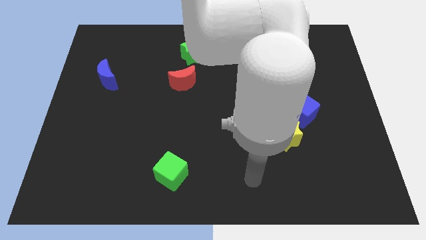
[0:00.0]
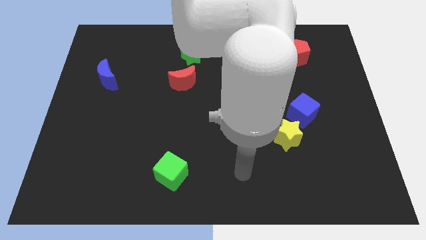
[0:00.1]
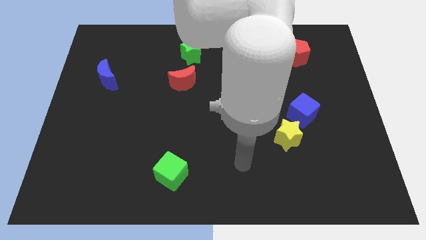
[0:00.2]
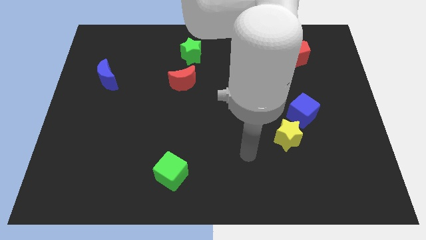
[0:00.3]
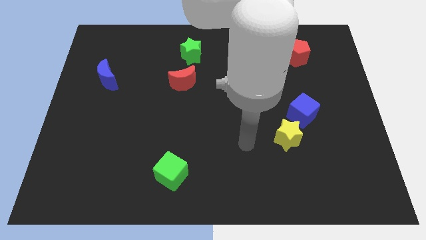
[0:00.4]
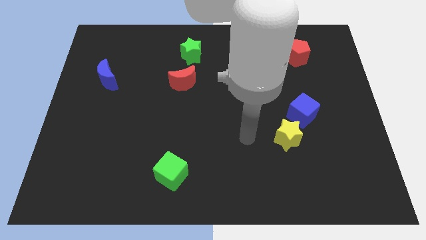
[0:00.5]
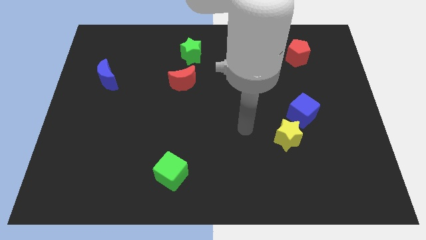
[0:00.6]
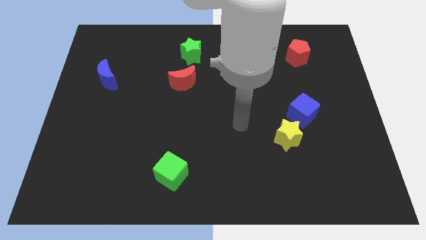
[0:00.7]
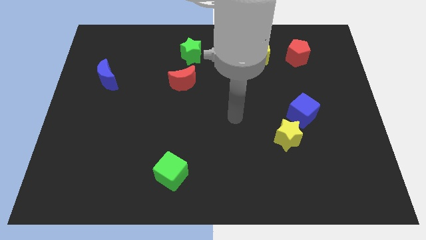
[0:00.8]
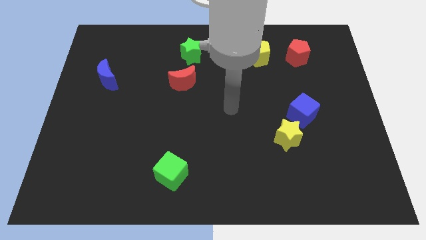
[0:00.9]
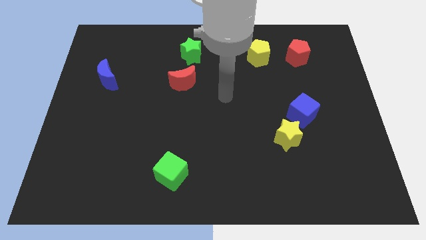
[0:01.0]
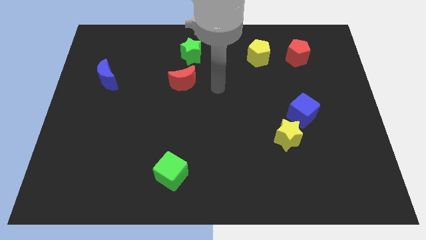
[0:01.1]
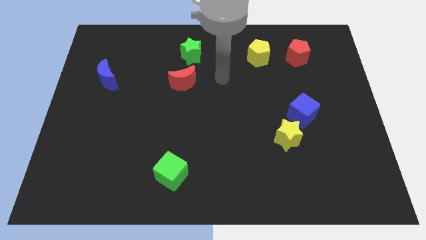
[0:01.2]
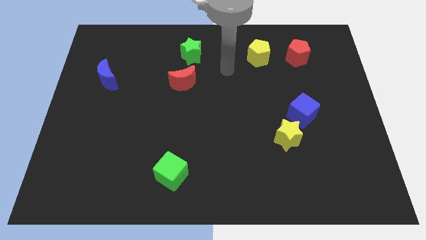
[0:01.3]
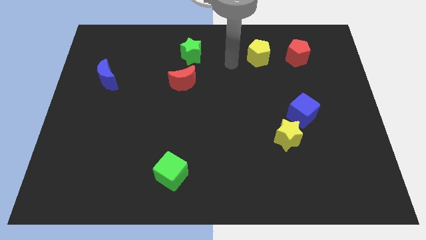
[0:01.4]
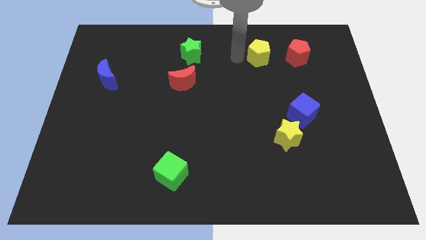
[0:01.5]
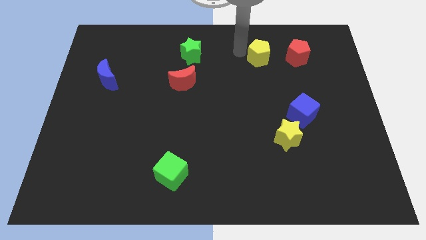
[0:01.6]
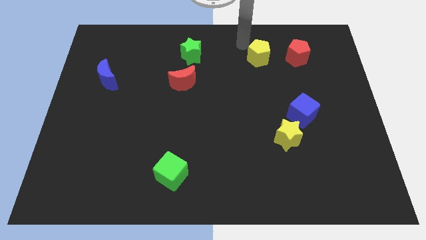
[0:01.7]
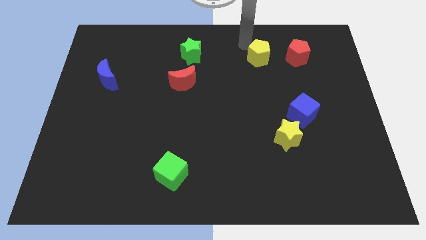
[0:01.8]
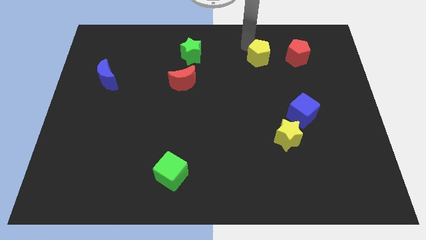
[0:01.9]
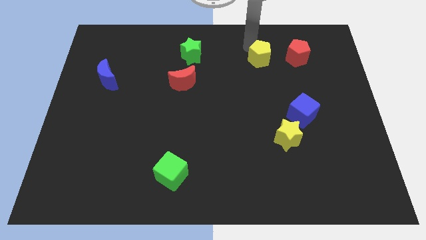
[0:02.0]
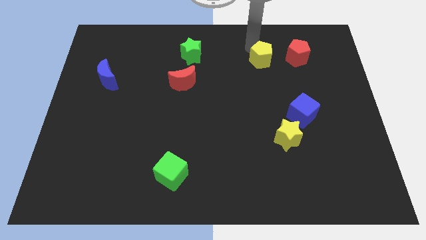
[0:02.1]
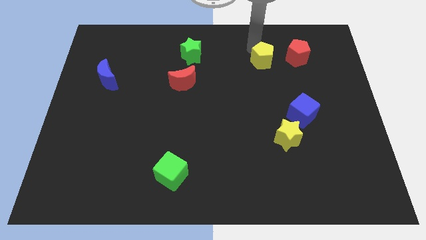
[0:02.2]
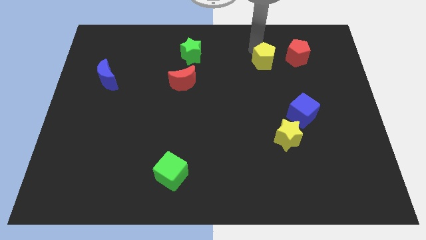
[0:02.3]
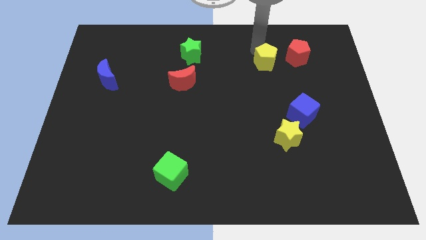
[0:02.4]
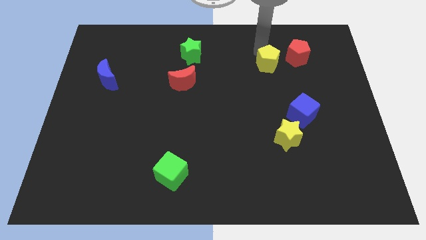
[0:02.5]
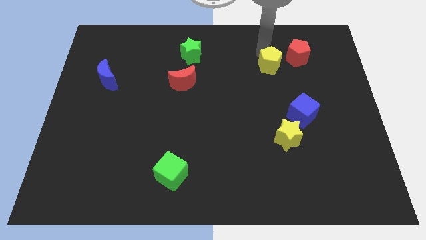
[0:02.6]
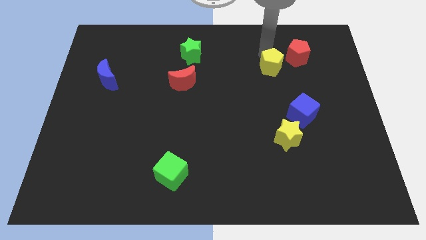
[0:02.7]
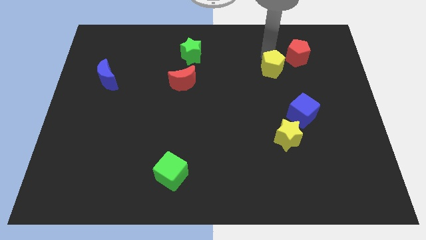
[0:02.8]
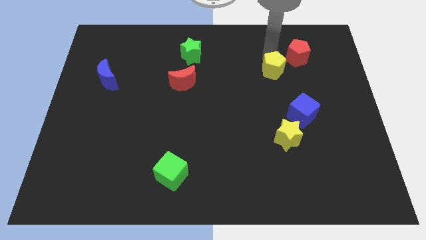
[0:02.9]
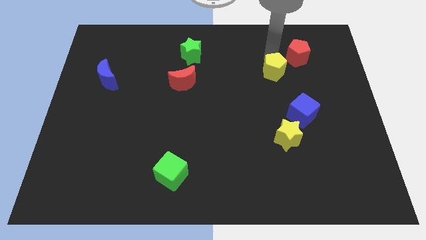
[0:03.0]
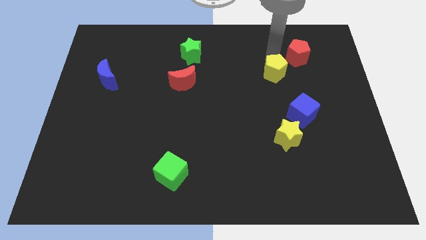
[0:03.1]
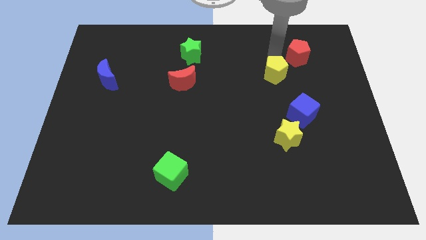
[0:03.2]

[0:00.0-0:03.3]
move the yellow pentagon slightly down and to the right

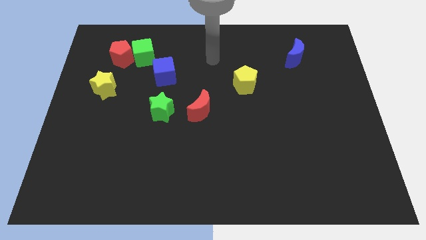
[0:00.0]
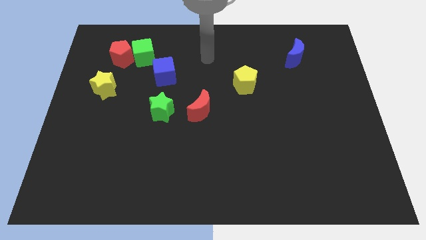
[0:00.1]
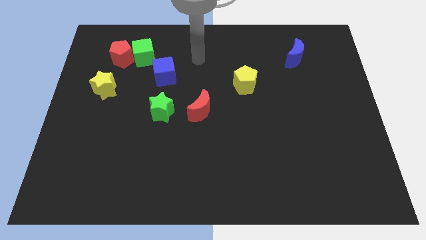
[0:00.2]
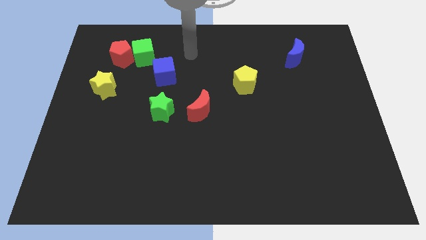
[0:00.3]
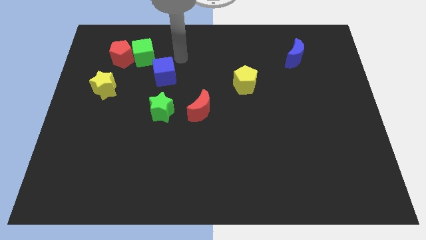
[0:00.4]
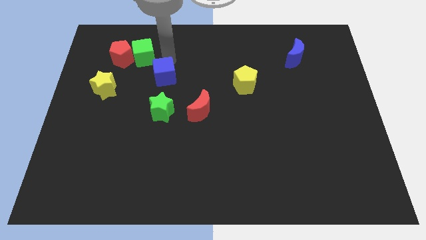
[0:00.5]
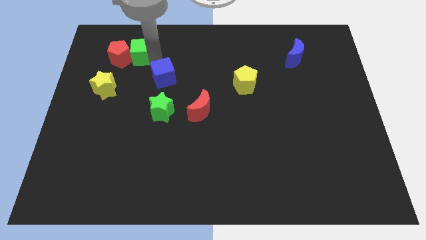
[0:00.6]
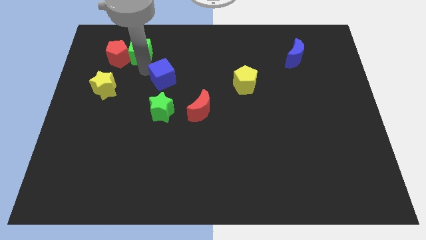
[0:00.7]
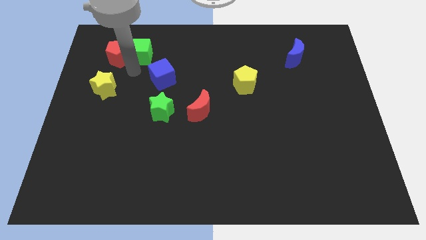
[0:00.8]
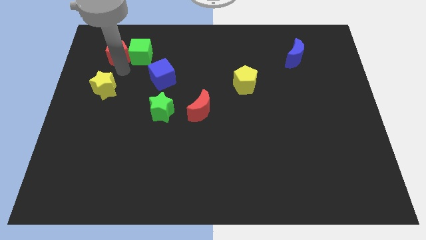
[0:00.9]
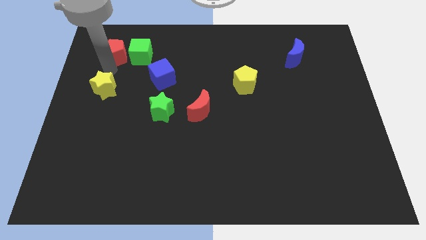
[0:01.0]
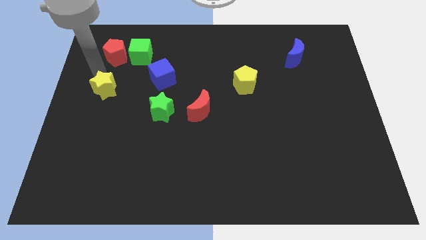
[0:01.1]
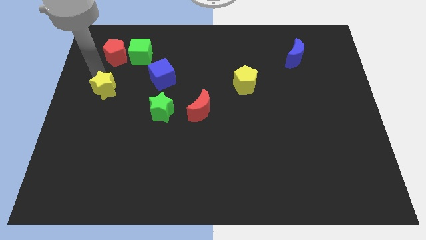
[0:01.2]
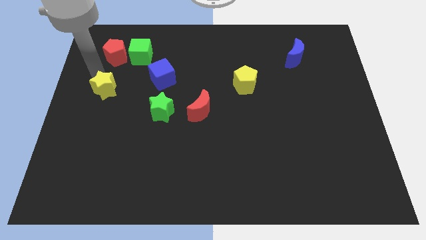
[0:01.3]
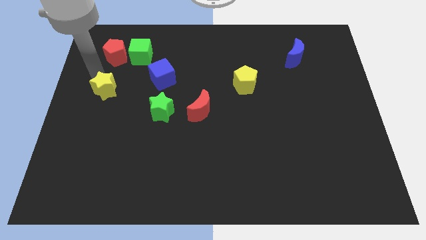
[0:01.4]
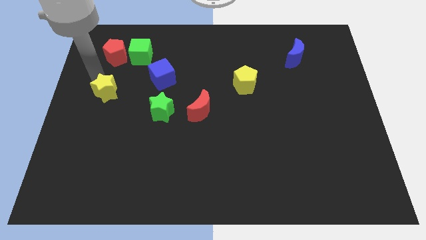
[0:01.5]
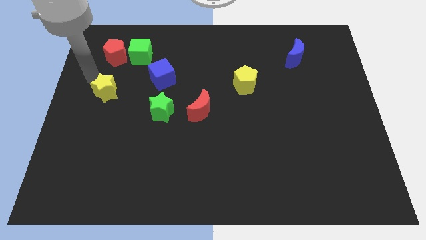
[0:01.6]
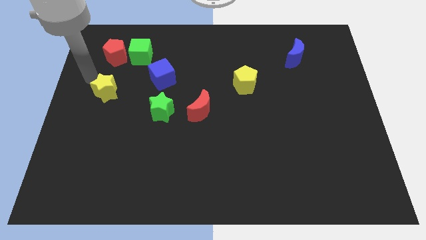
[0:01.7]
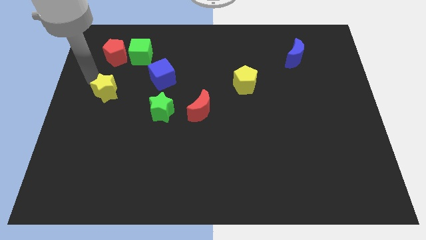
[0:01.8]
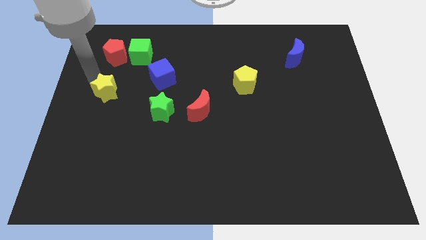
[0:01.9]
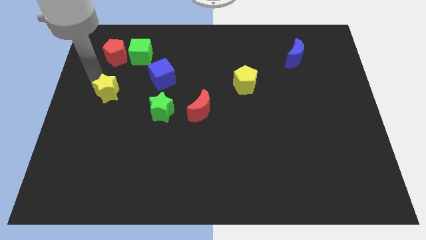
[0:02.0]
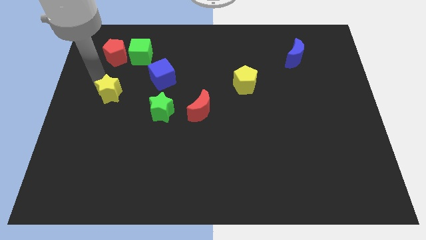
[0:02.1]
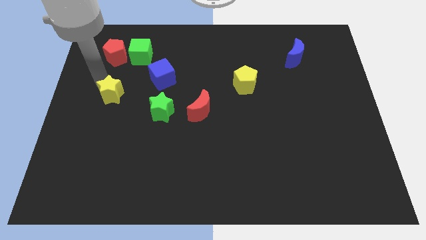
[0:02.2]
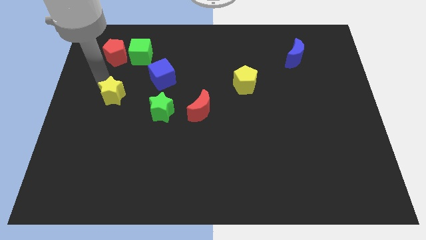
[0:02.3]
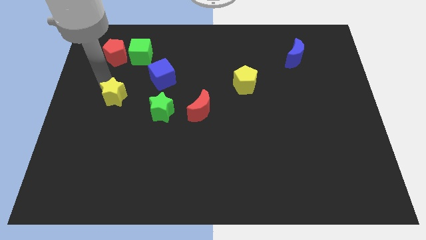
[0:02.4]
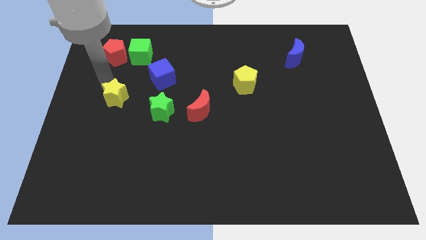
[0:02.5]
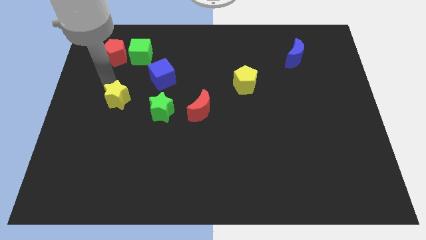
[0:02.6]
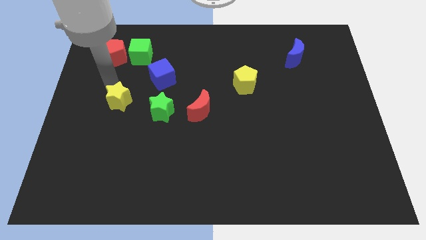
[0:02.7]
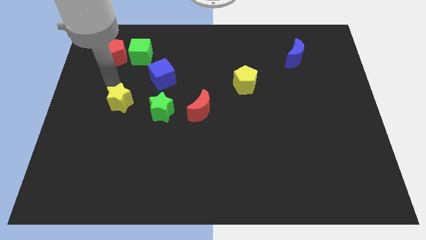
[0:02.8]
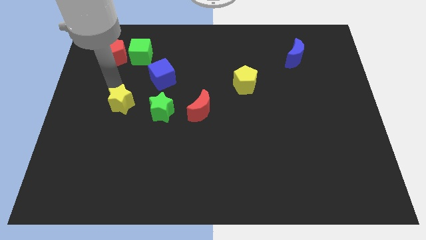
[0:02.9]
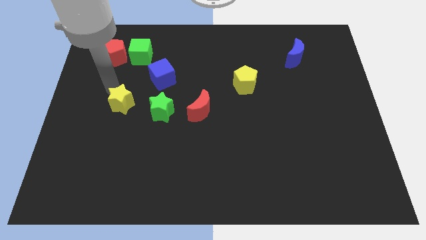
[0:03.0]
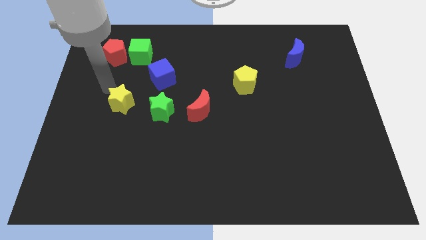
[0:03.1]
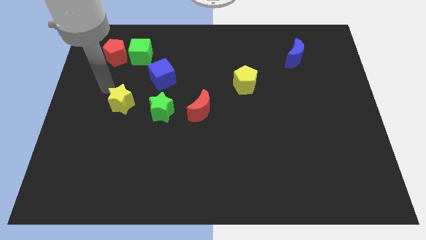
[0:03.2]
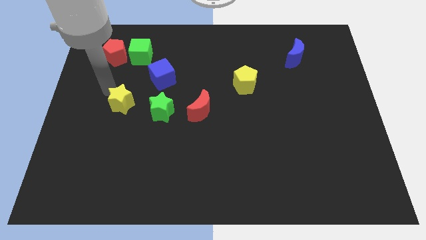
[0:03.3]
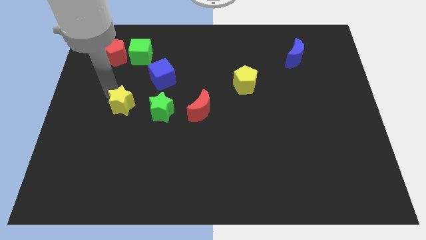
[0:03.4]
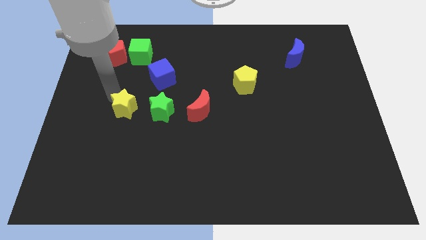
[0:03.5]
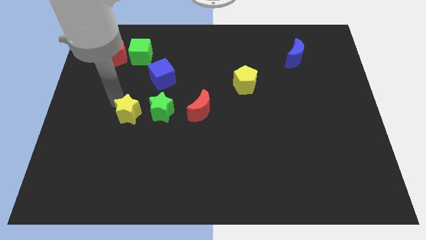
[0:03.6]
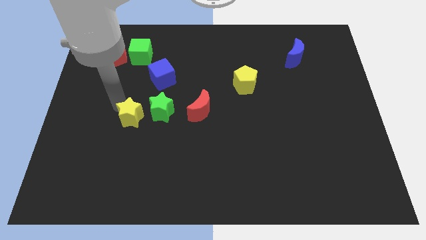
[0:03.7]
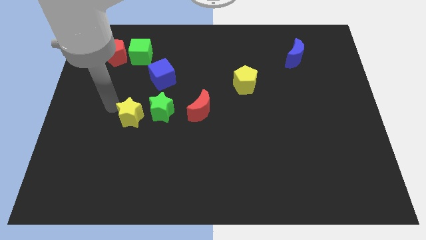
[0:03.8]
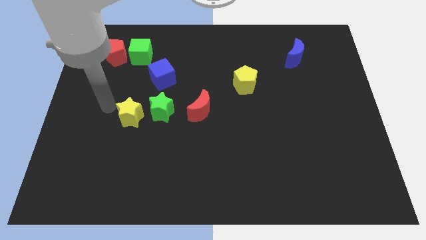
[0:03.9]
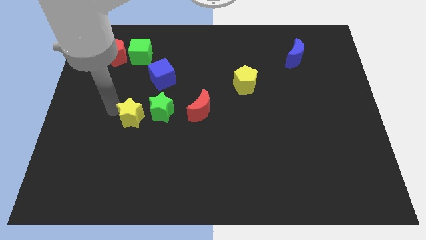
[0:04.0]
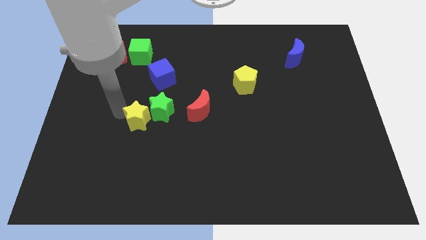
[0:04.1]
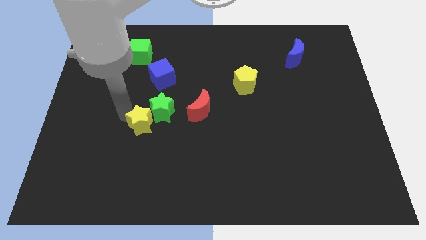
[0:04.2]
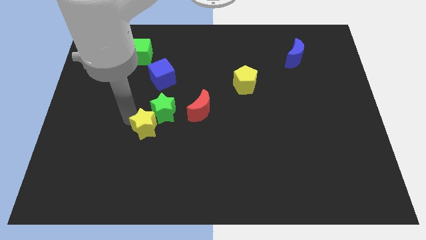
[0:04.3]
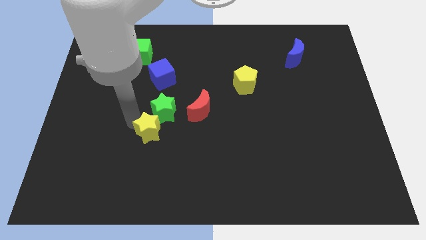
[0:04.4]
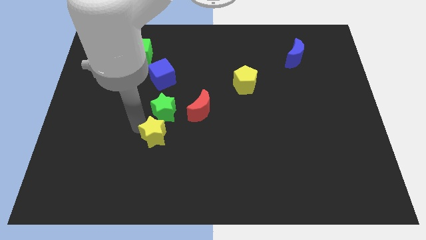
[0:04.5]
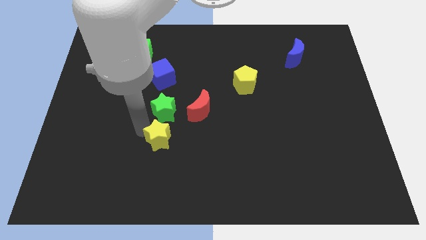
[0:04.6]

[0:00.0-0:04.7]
move the yellow star downwards and right diagonally
